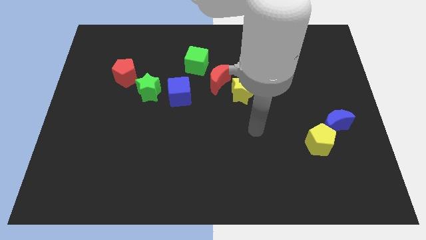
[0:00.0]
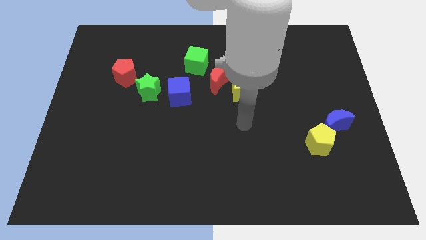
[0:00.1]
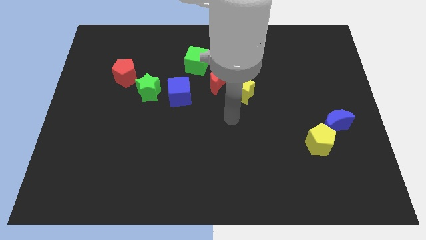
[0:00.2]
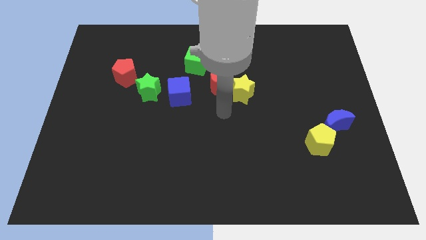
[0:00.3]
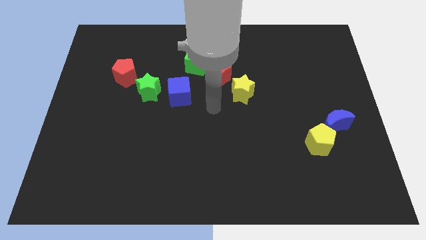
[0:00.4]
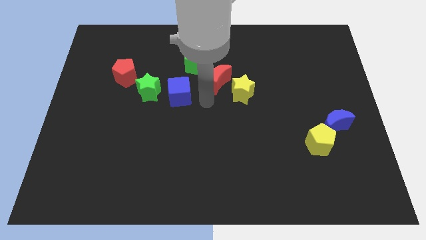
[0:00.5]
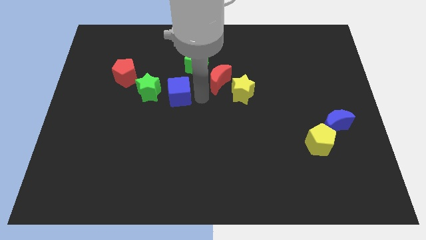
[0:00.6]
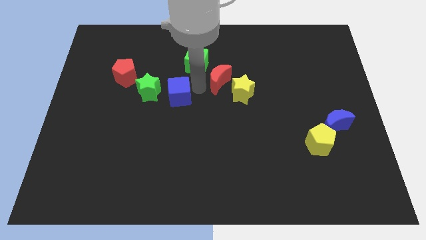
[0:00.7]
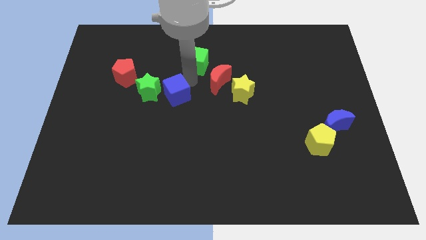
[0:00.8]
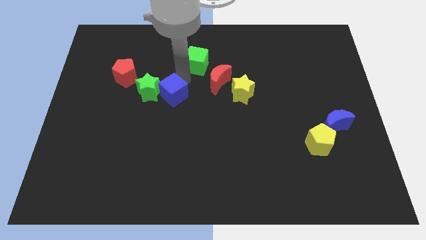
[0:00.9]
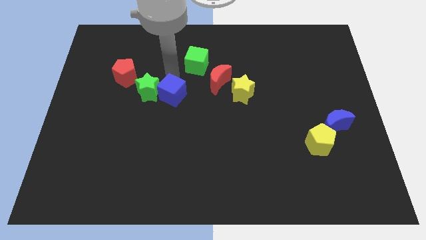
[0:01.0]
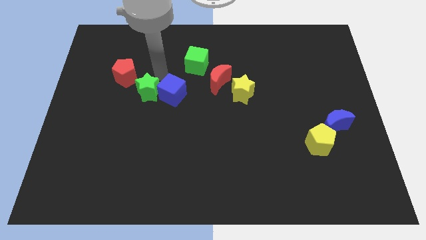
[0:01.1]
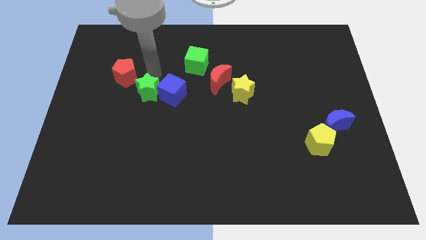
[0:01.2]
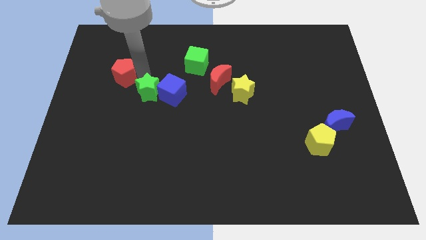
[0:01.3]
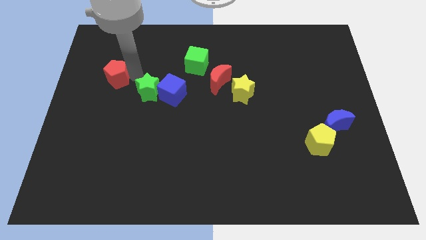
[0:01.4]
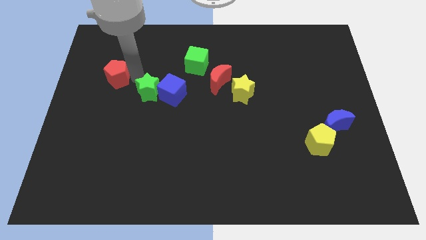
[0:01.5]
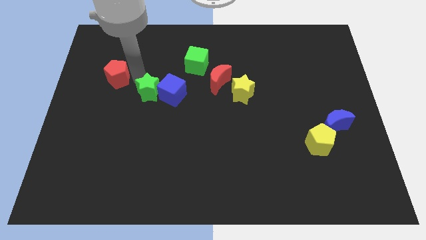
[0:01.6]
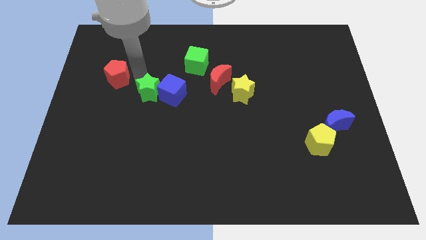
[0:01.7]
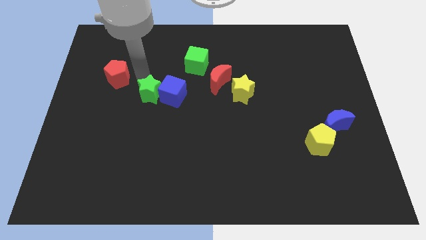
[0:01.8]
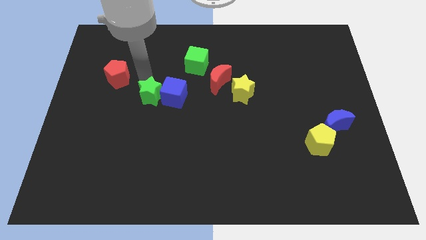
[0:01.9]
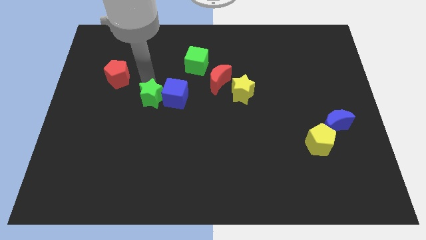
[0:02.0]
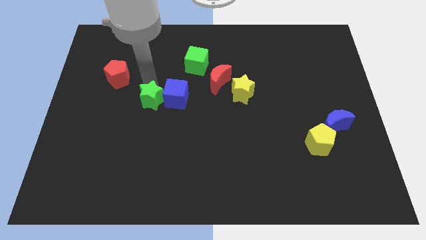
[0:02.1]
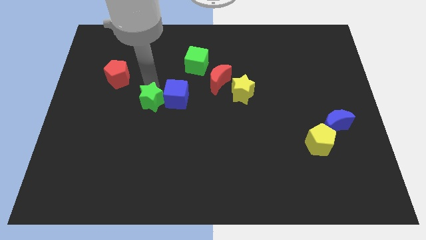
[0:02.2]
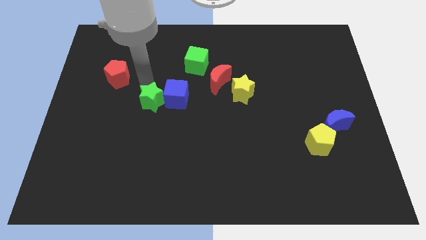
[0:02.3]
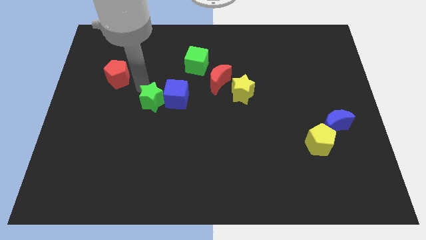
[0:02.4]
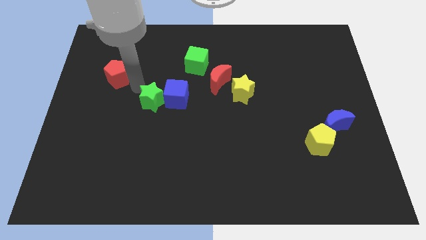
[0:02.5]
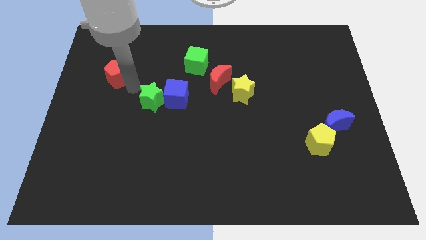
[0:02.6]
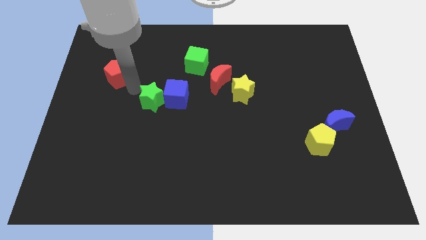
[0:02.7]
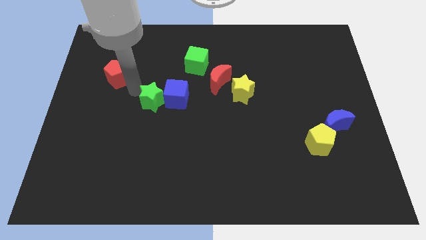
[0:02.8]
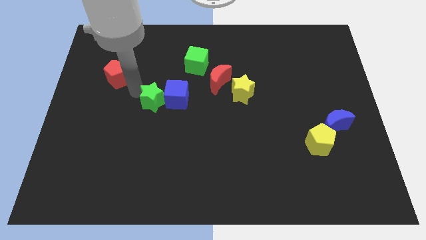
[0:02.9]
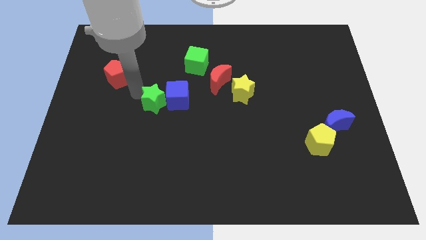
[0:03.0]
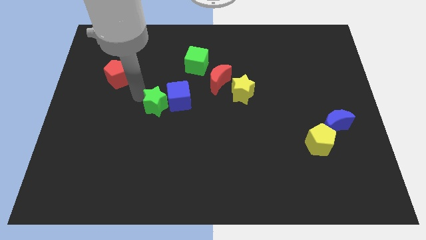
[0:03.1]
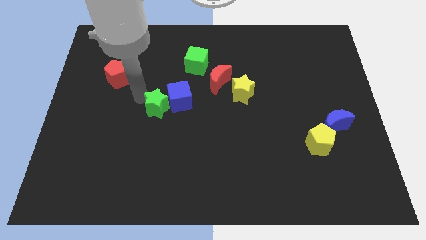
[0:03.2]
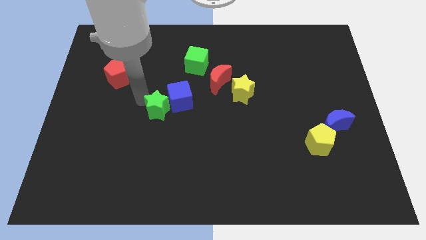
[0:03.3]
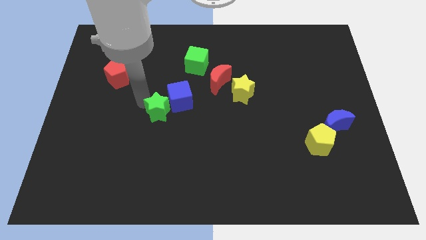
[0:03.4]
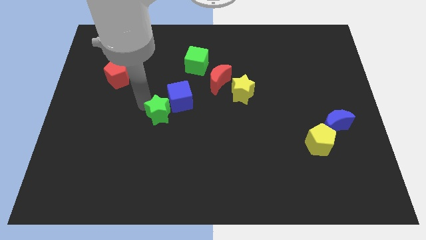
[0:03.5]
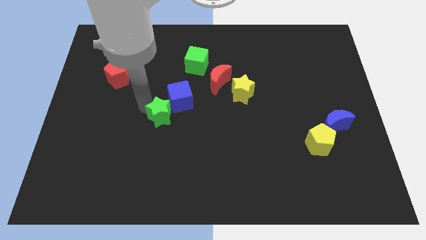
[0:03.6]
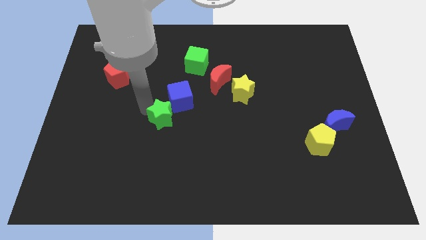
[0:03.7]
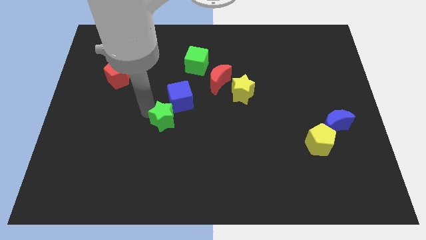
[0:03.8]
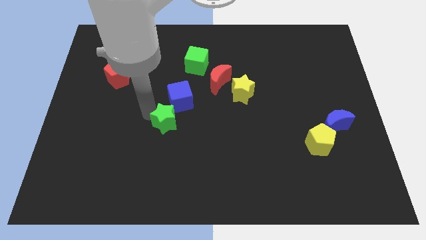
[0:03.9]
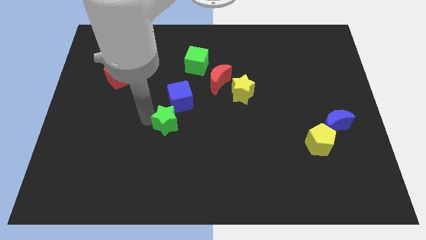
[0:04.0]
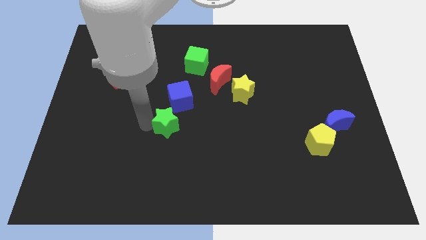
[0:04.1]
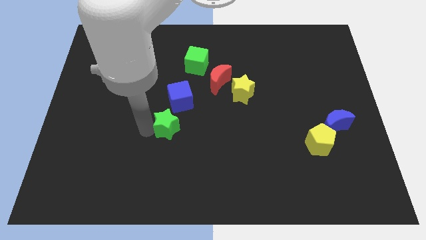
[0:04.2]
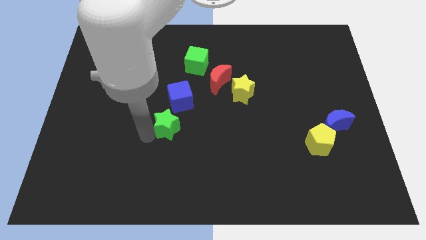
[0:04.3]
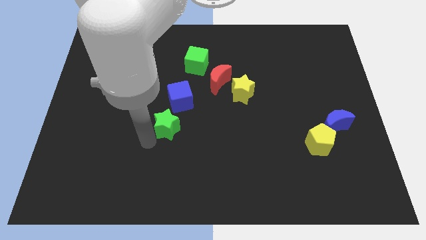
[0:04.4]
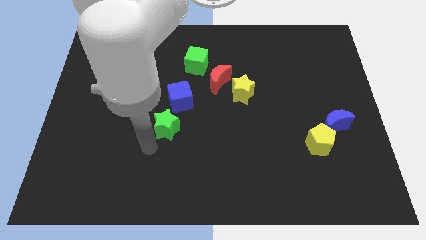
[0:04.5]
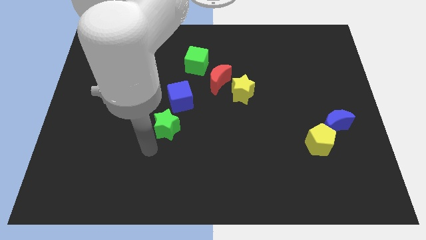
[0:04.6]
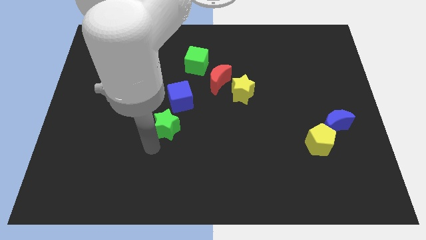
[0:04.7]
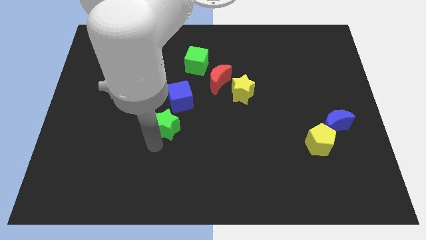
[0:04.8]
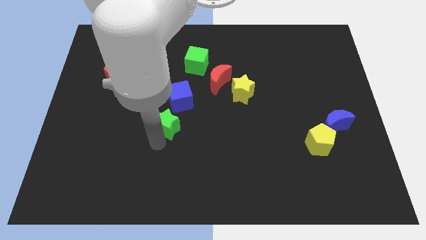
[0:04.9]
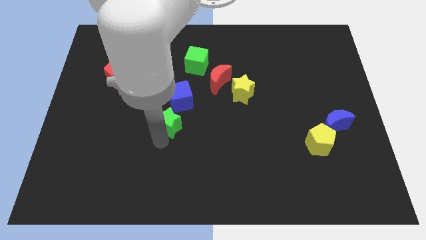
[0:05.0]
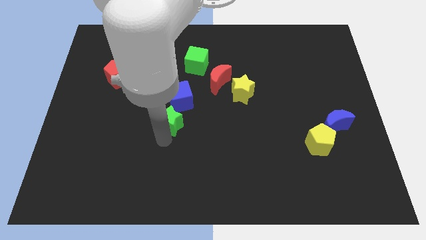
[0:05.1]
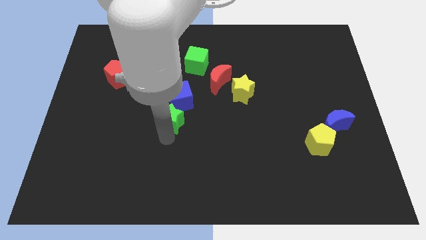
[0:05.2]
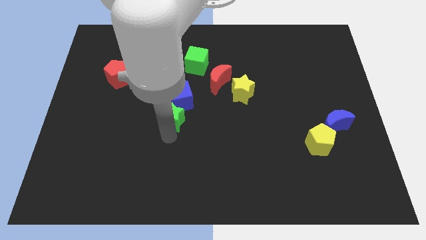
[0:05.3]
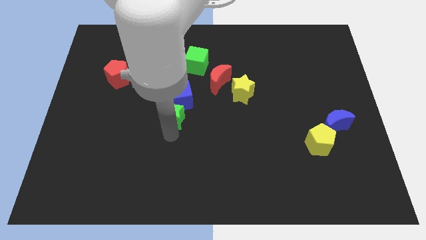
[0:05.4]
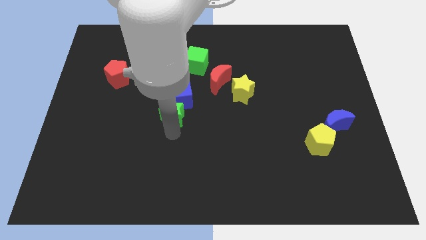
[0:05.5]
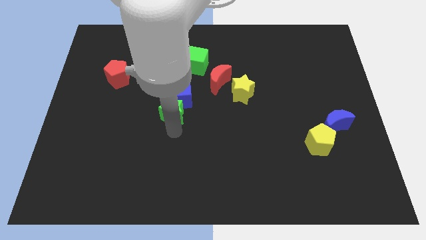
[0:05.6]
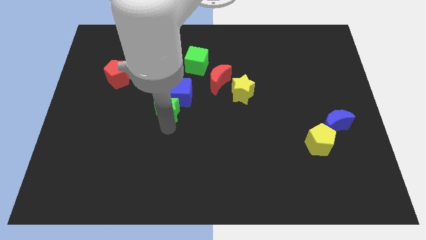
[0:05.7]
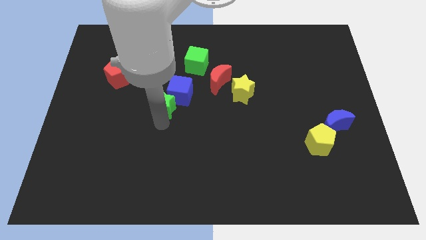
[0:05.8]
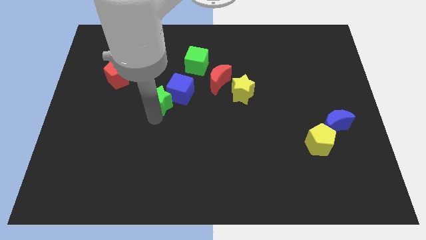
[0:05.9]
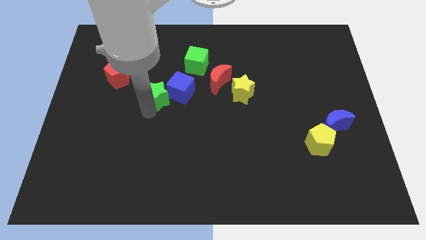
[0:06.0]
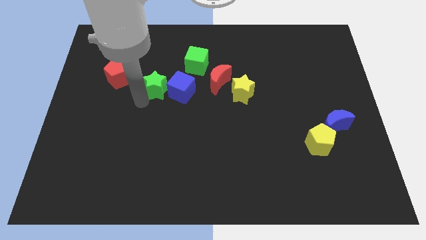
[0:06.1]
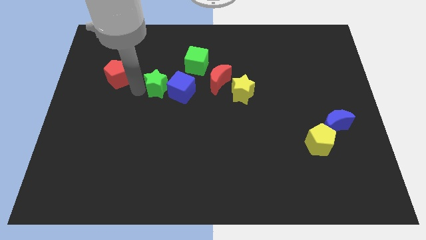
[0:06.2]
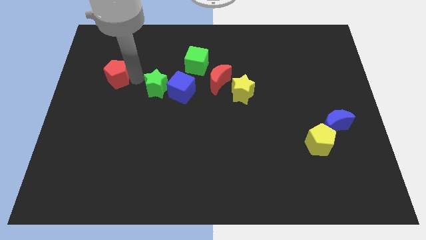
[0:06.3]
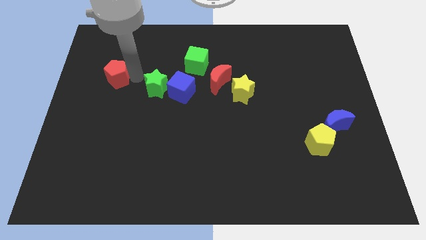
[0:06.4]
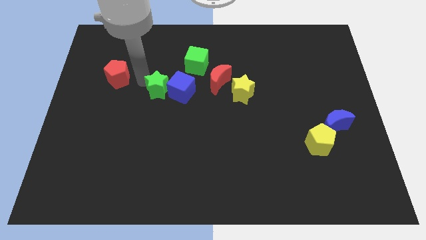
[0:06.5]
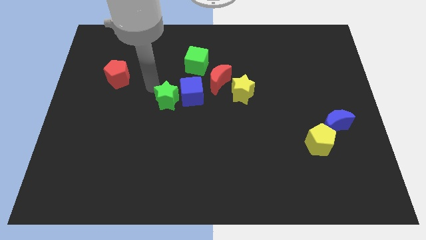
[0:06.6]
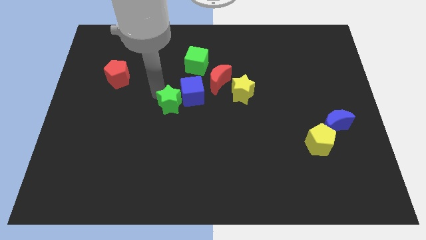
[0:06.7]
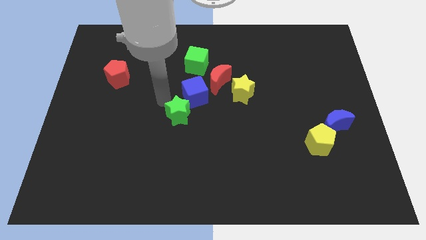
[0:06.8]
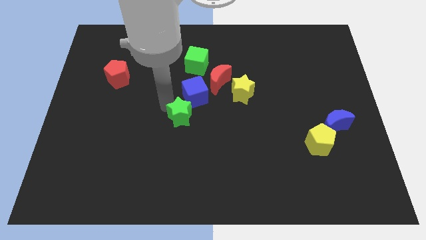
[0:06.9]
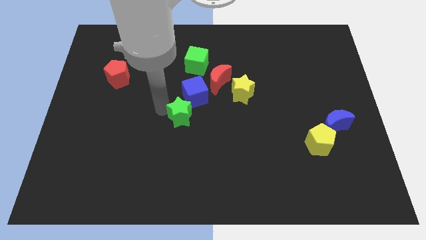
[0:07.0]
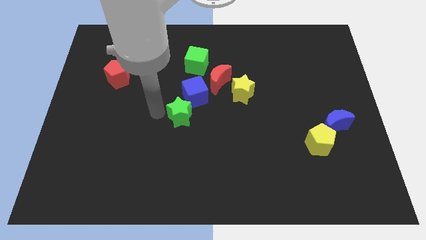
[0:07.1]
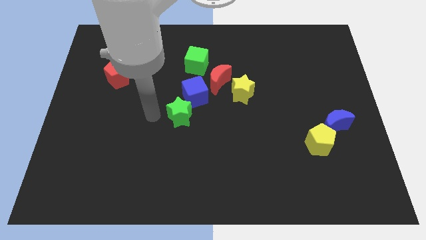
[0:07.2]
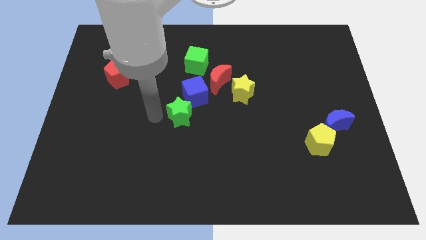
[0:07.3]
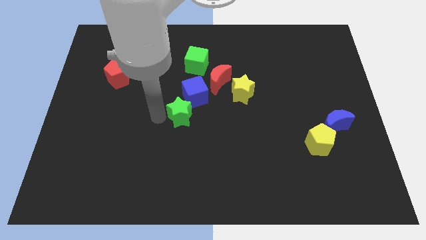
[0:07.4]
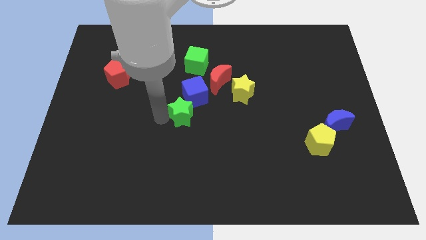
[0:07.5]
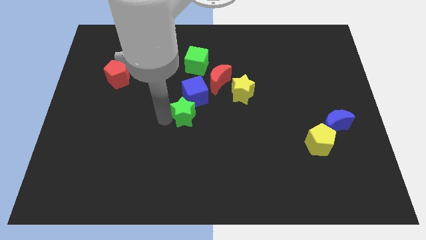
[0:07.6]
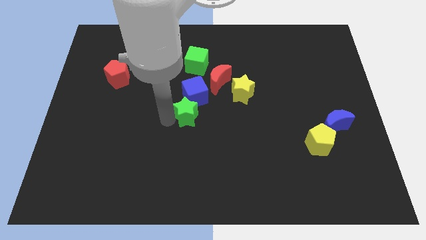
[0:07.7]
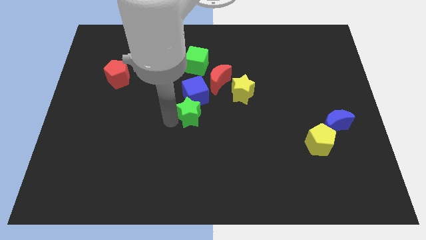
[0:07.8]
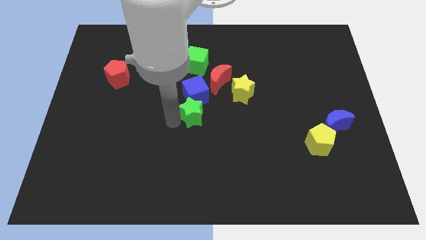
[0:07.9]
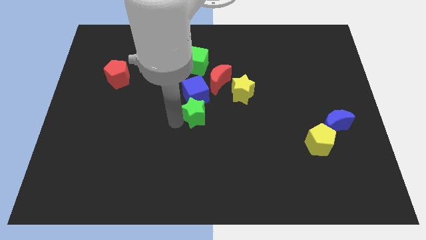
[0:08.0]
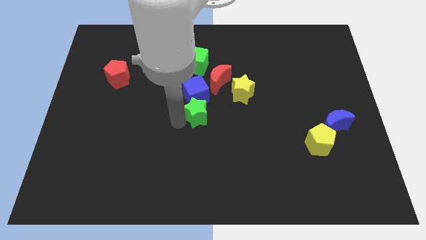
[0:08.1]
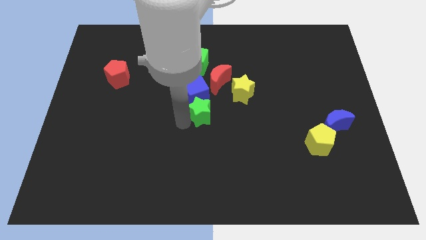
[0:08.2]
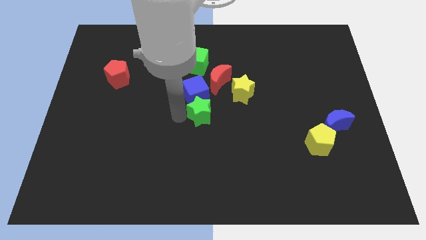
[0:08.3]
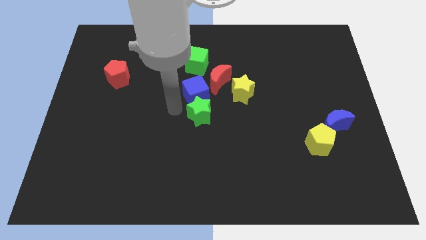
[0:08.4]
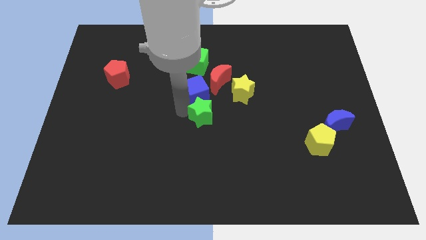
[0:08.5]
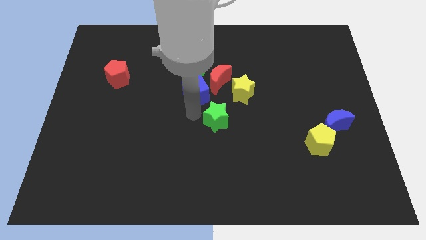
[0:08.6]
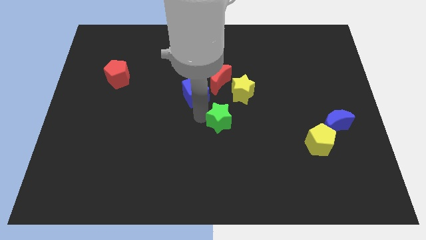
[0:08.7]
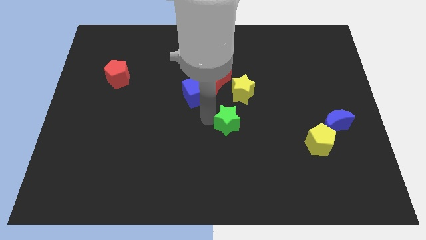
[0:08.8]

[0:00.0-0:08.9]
move the green star to the bottom of the yellow star
